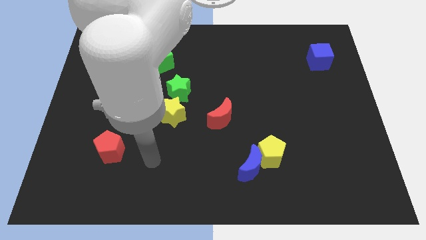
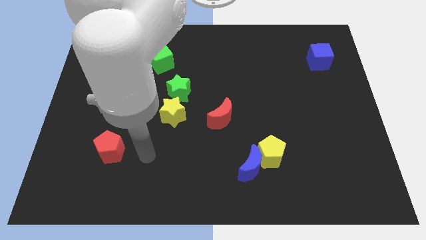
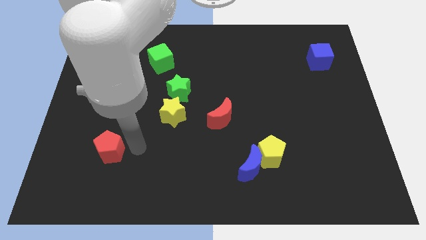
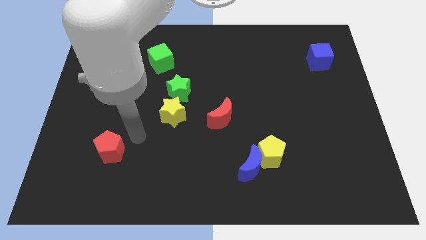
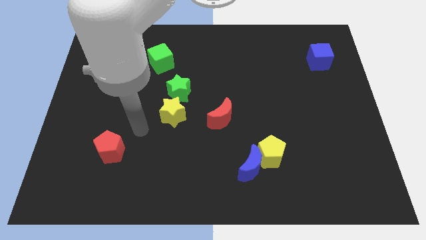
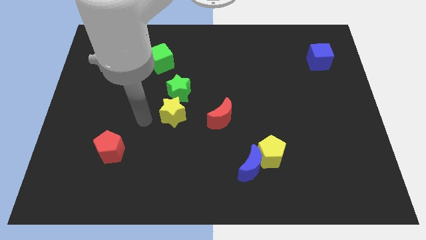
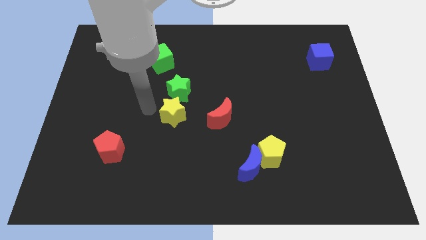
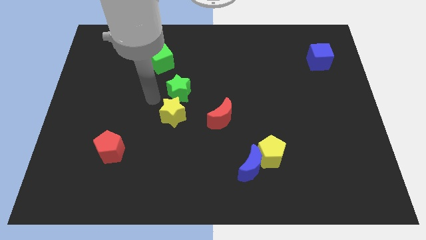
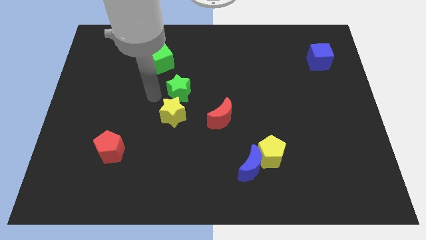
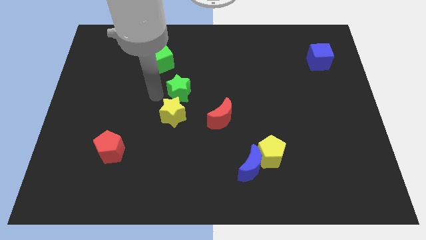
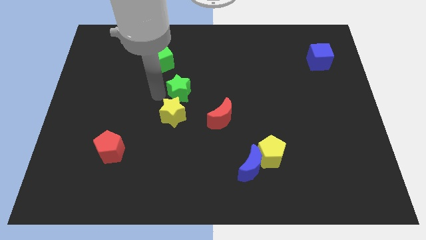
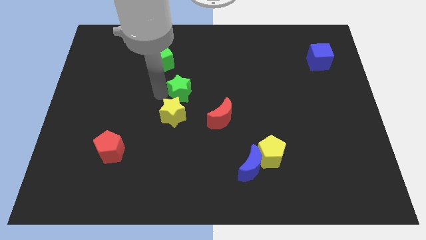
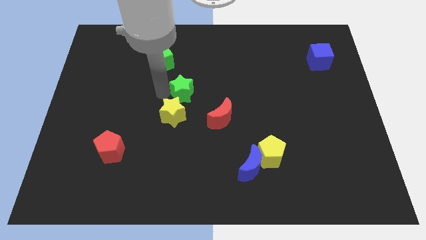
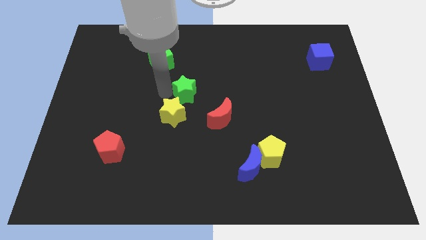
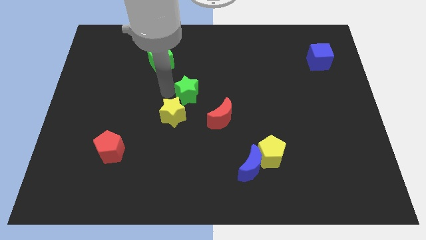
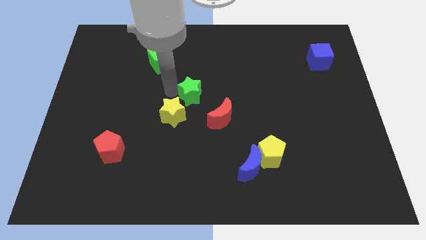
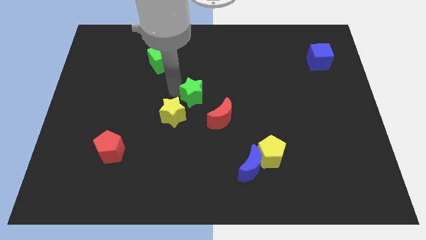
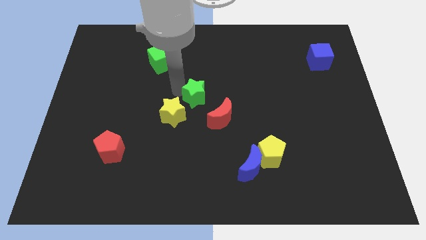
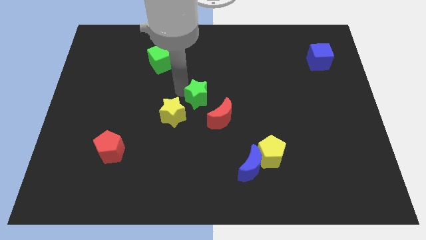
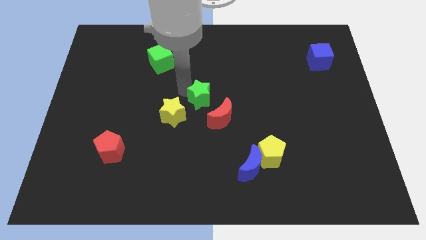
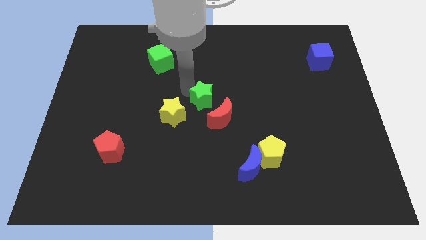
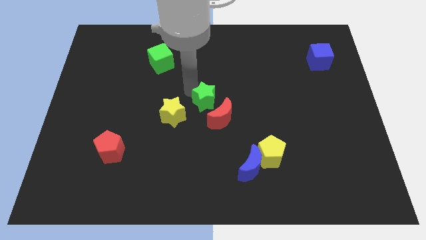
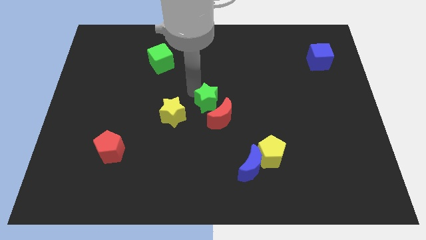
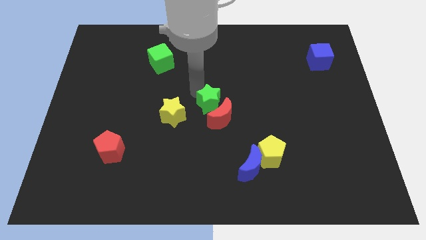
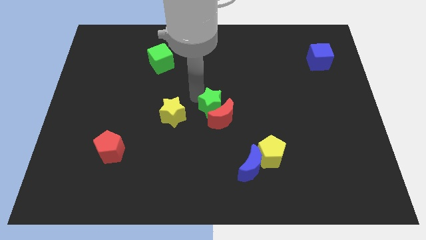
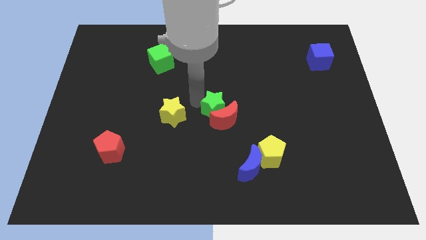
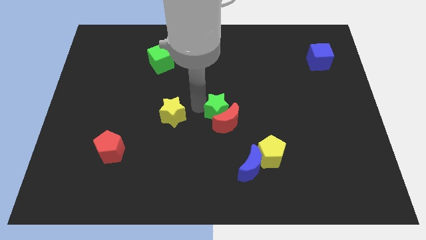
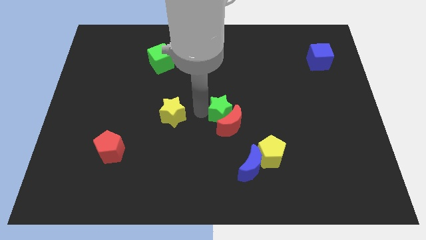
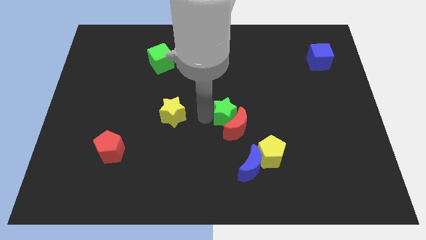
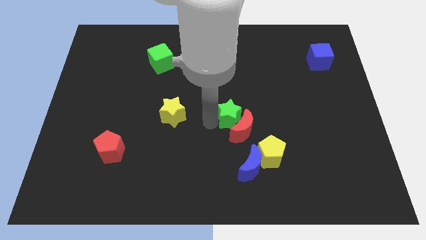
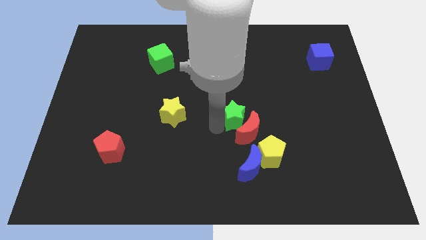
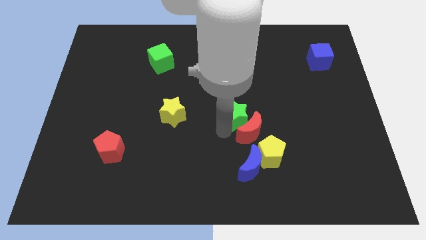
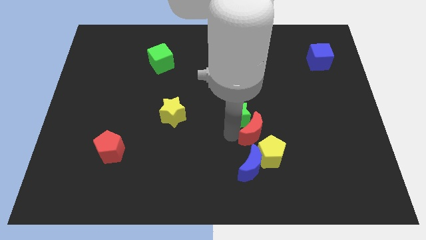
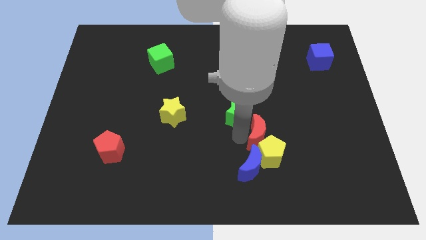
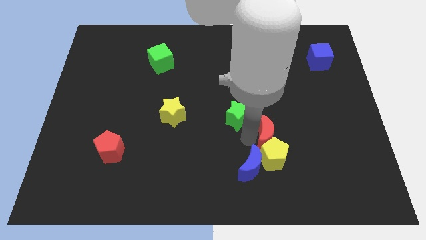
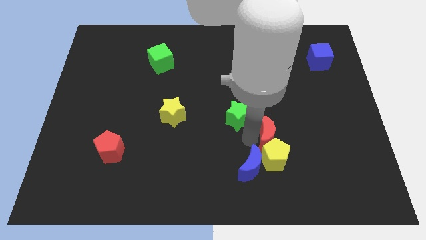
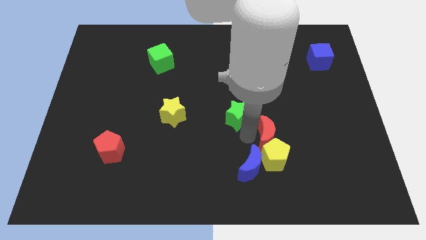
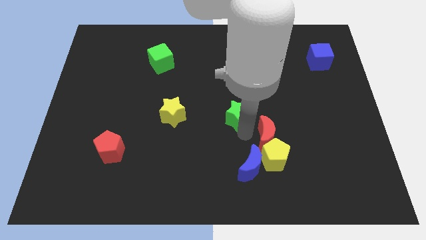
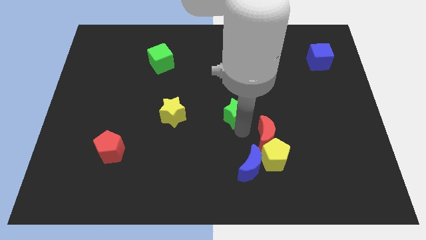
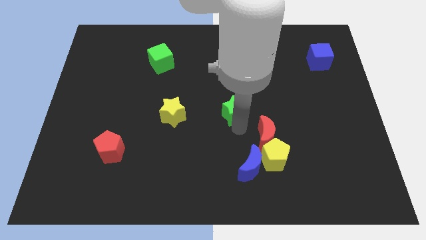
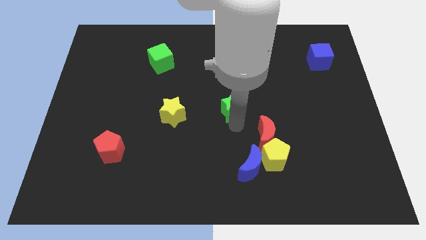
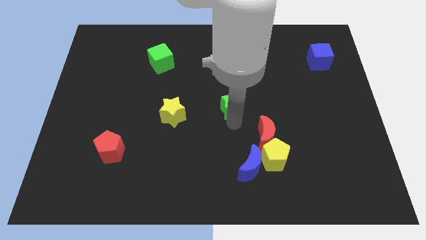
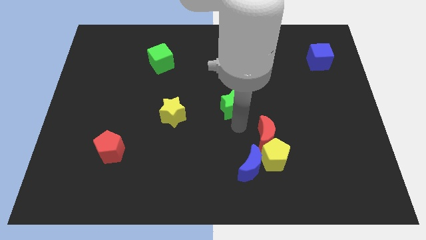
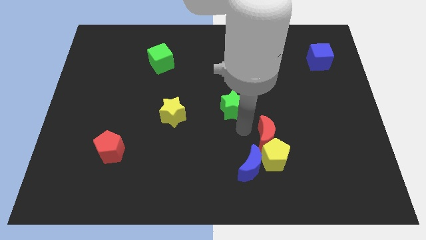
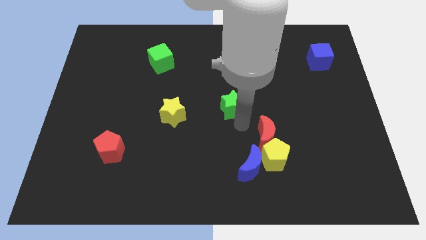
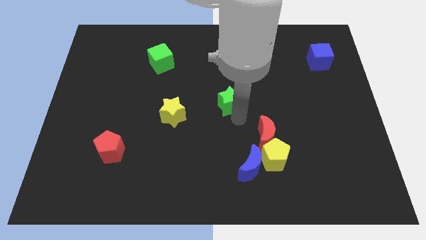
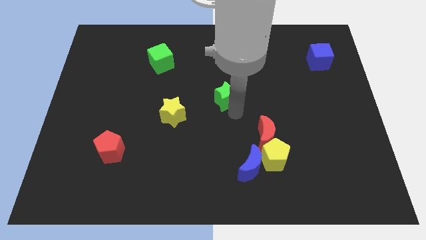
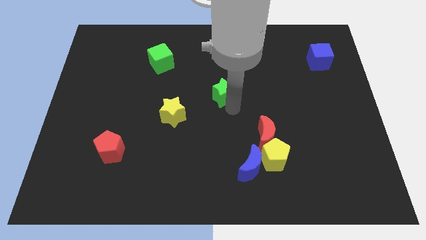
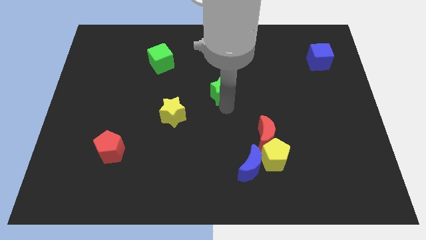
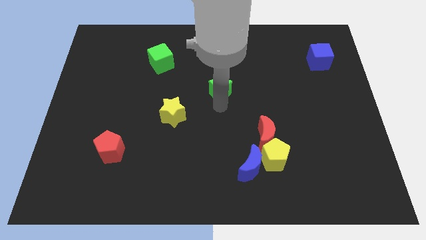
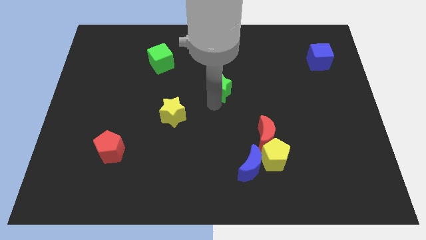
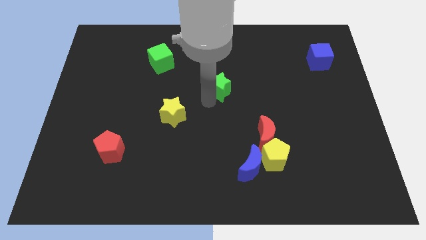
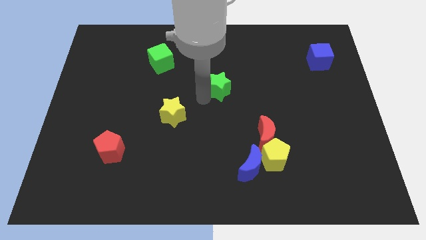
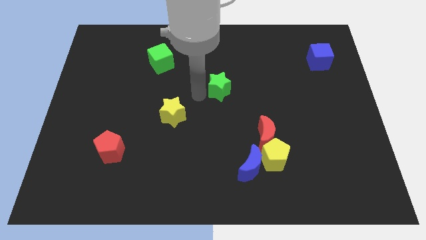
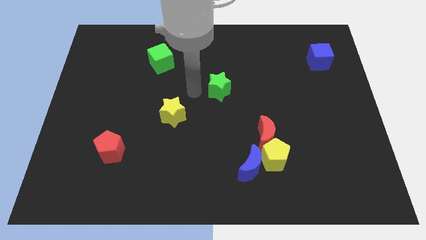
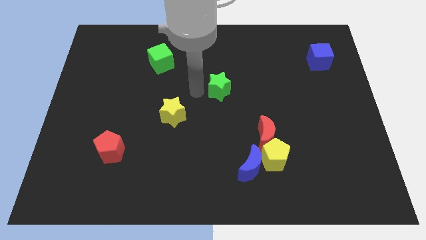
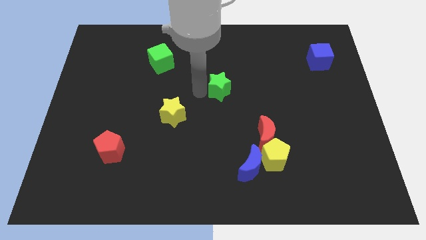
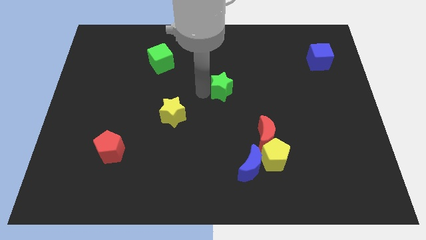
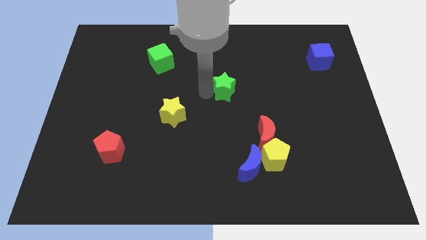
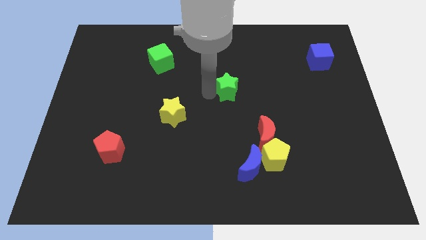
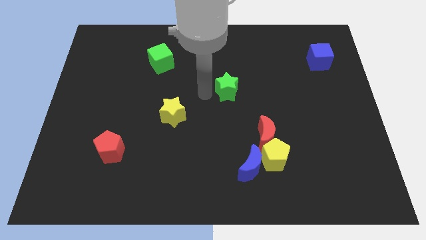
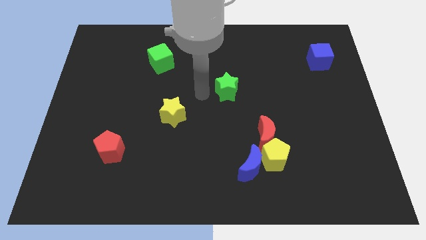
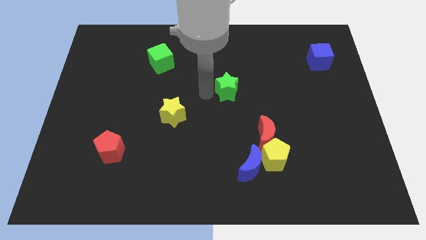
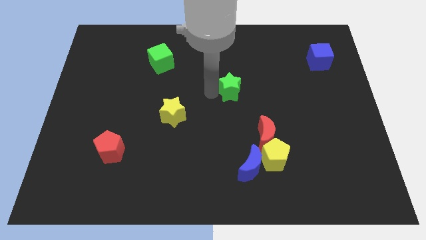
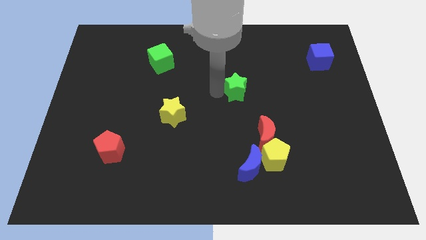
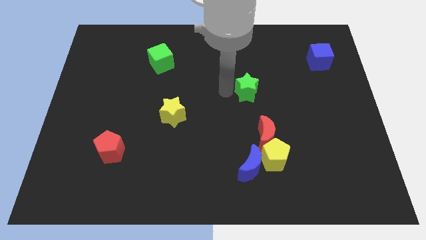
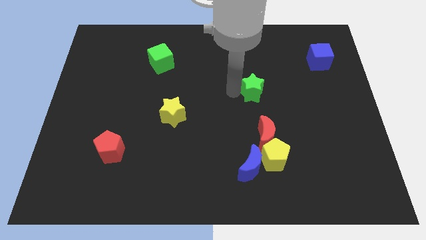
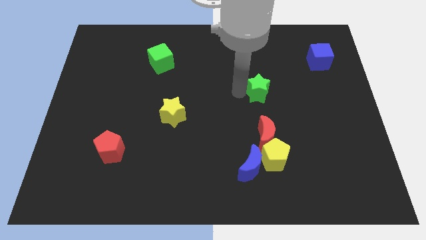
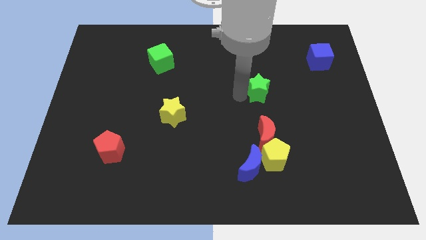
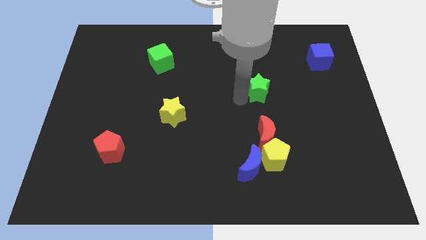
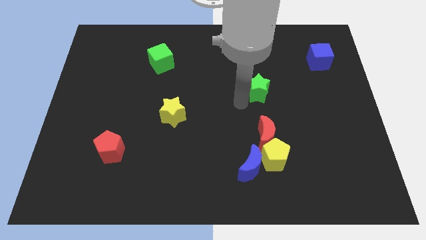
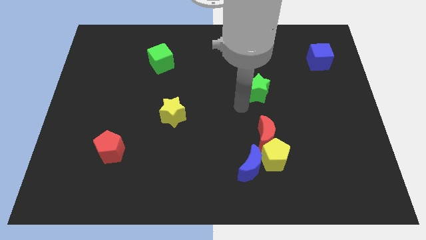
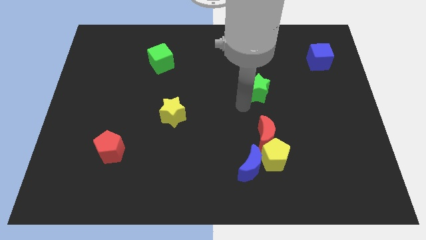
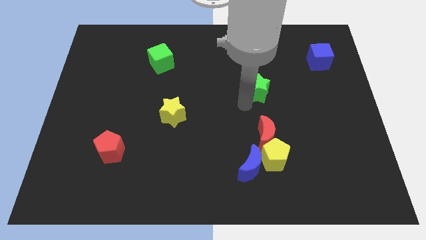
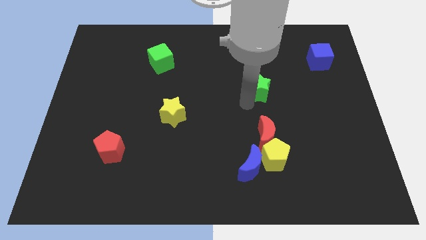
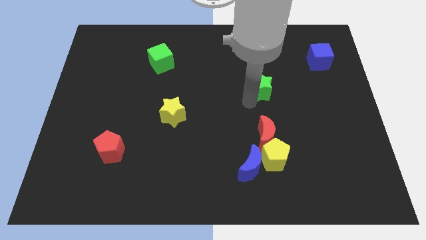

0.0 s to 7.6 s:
slide the green star to the right
